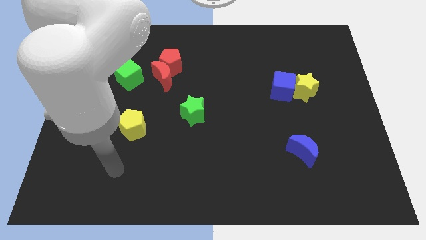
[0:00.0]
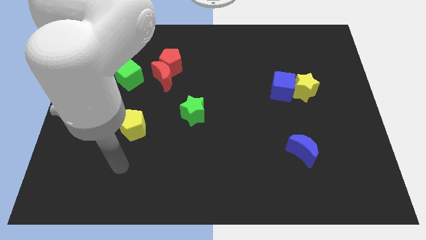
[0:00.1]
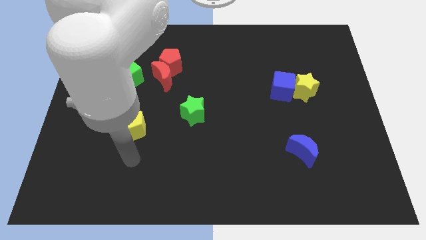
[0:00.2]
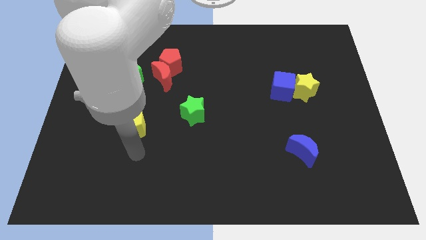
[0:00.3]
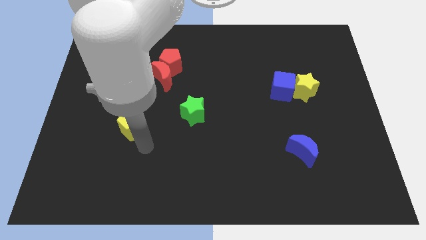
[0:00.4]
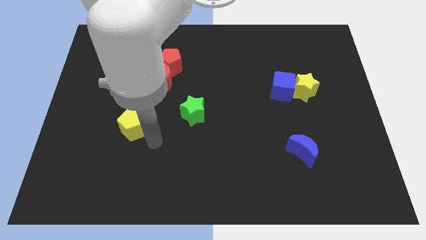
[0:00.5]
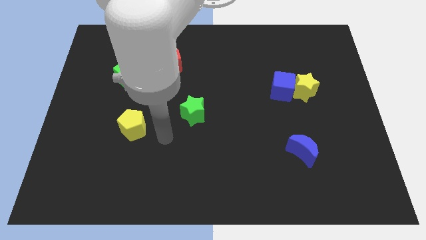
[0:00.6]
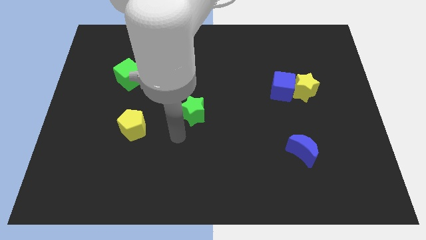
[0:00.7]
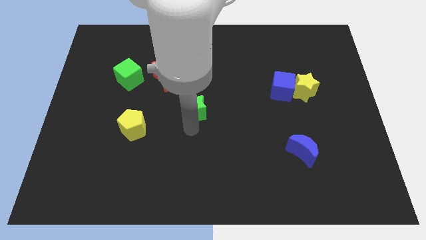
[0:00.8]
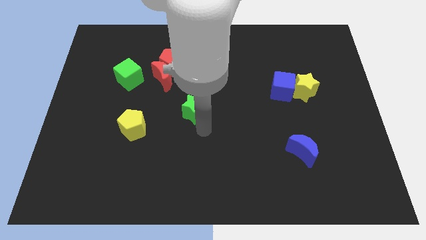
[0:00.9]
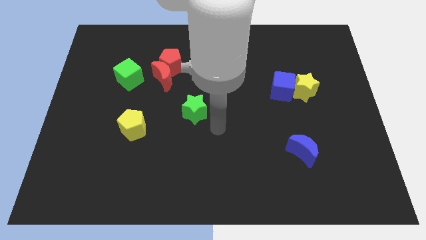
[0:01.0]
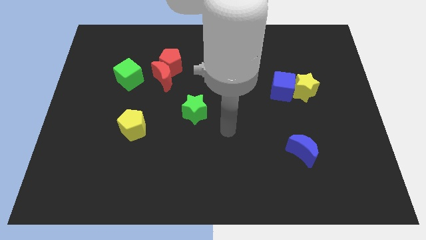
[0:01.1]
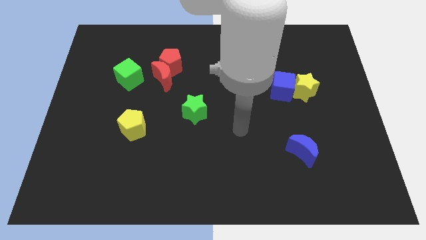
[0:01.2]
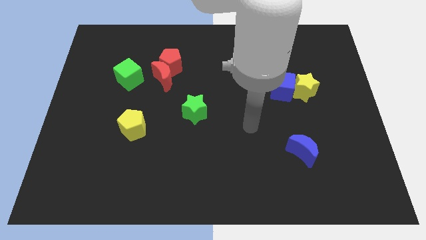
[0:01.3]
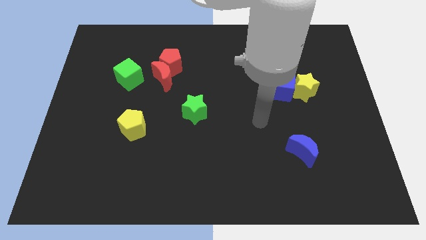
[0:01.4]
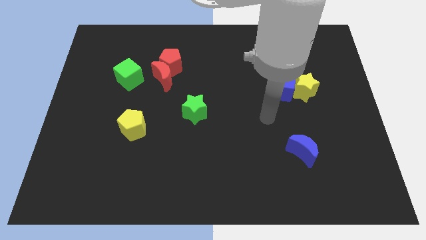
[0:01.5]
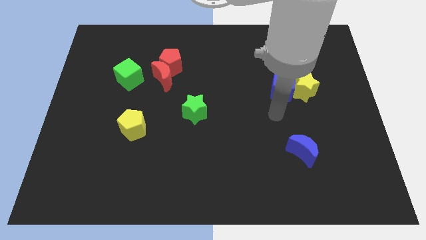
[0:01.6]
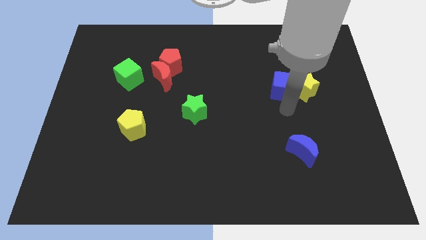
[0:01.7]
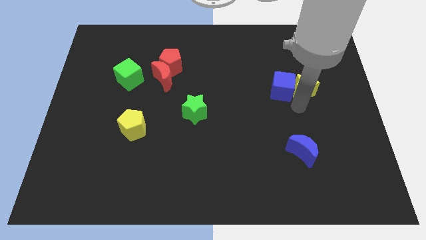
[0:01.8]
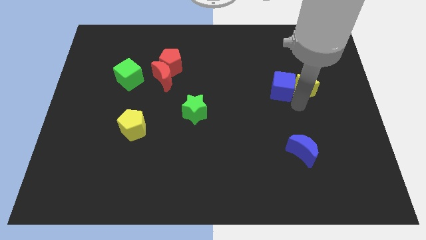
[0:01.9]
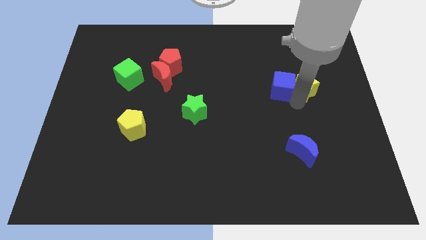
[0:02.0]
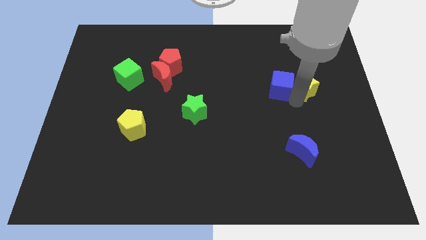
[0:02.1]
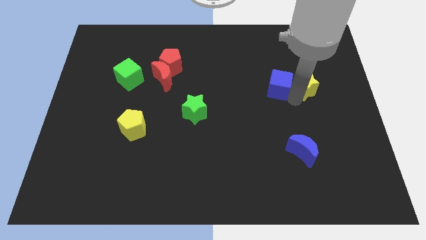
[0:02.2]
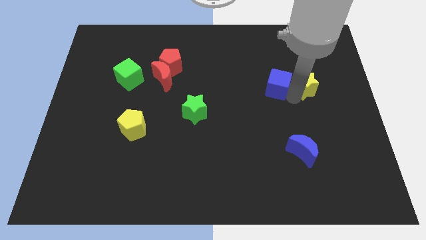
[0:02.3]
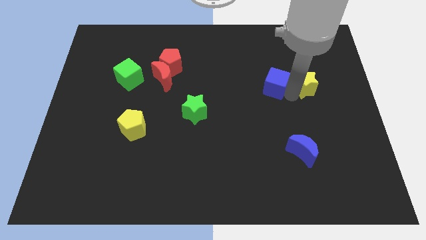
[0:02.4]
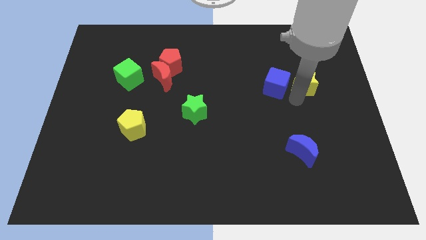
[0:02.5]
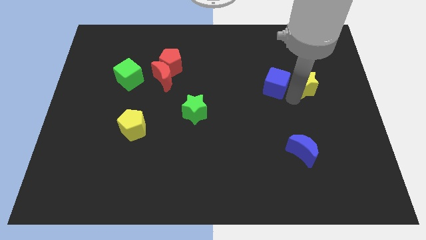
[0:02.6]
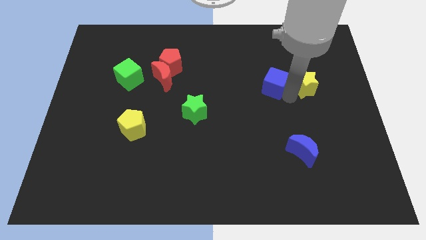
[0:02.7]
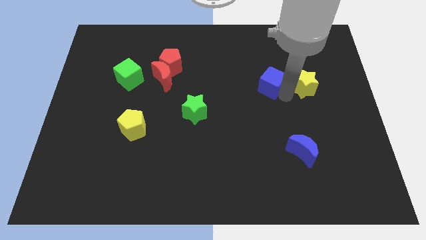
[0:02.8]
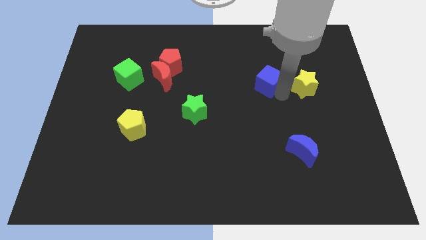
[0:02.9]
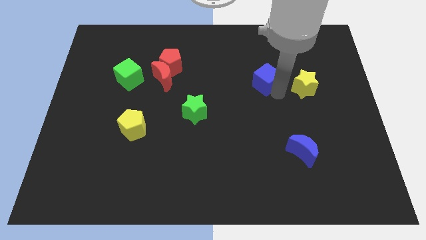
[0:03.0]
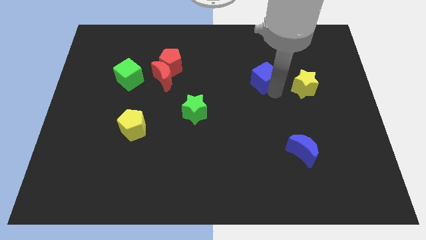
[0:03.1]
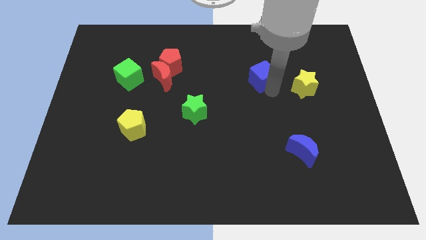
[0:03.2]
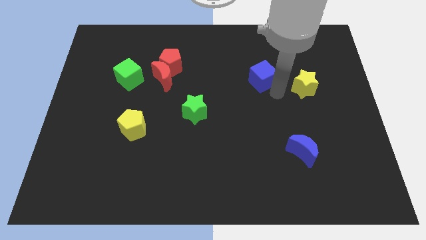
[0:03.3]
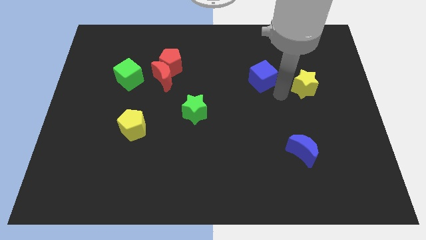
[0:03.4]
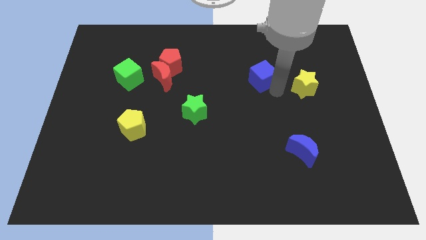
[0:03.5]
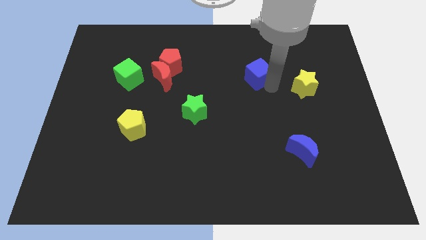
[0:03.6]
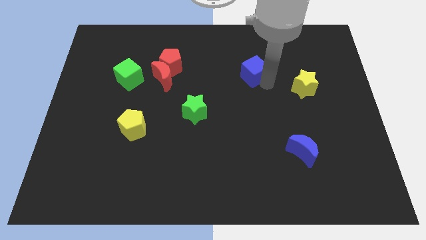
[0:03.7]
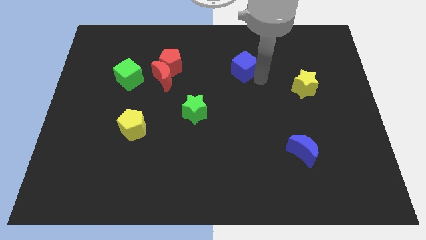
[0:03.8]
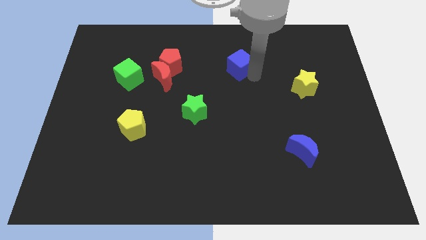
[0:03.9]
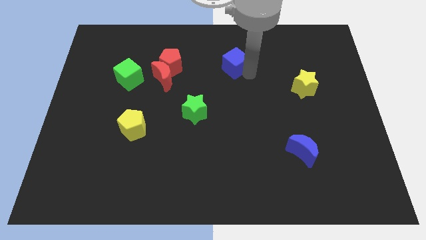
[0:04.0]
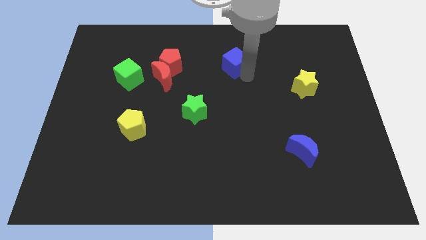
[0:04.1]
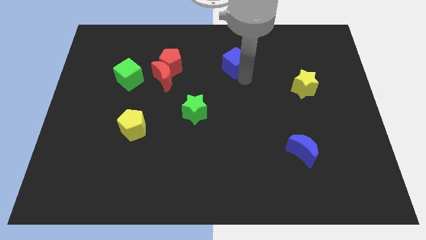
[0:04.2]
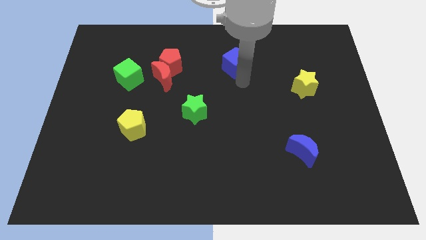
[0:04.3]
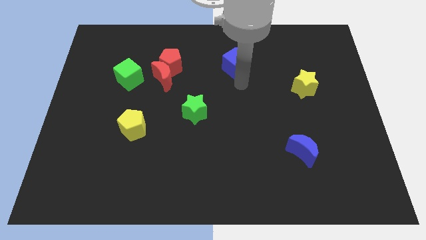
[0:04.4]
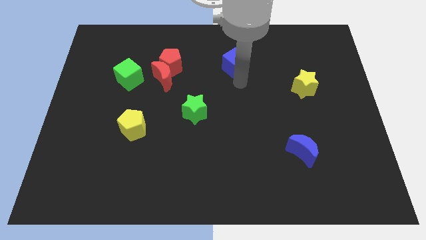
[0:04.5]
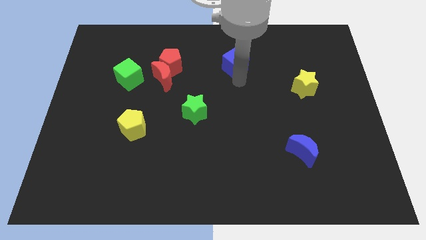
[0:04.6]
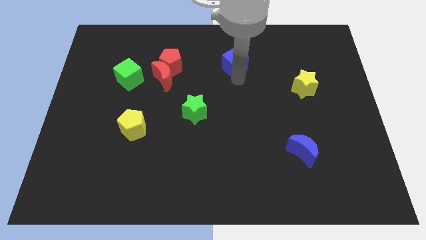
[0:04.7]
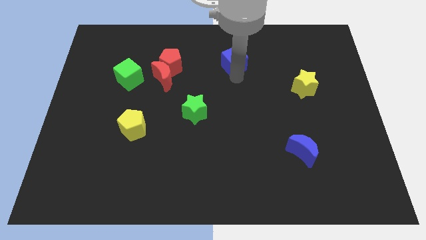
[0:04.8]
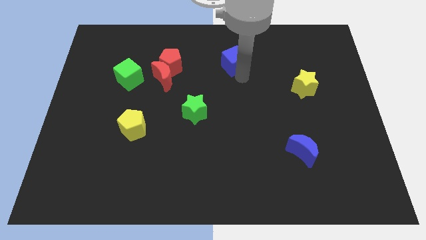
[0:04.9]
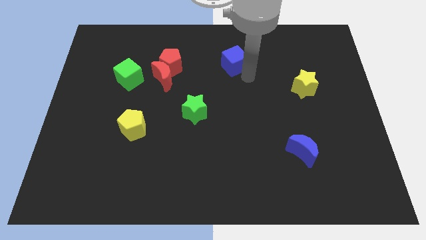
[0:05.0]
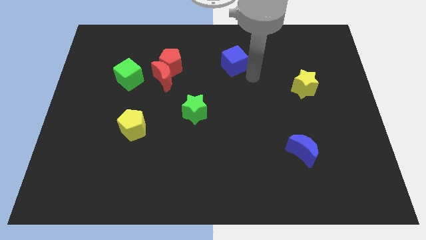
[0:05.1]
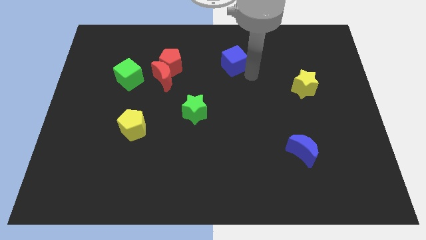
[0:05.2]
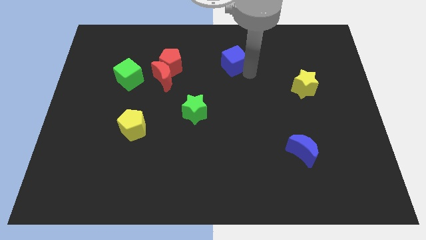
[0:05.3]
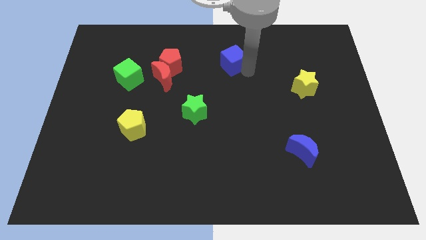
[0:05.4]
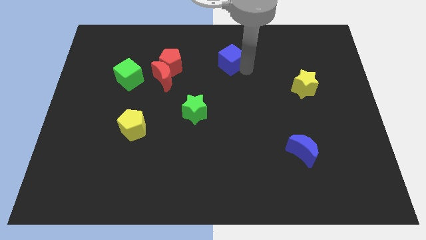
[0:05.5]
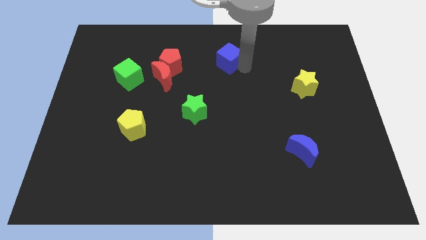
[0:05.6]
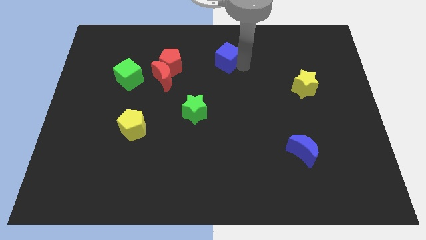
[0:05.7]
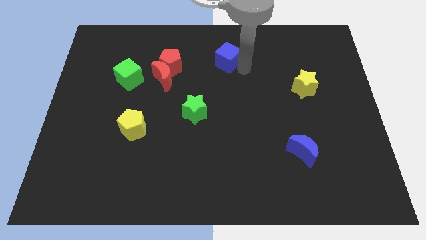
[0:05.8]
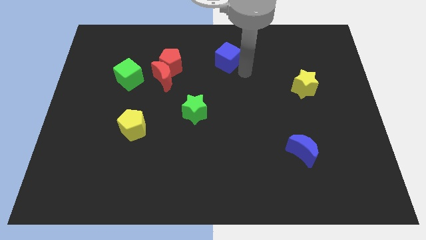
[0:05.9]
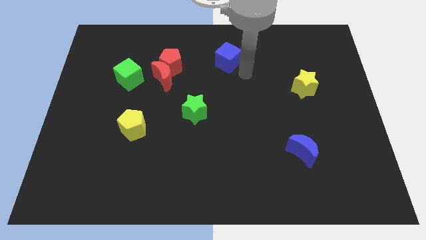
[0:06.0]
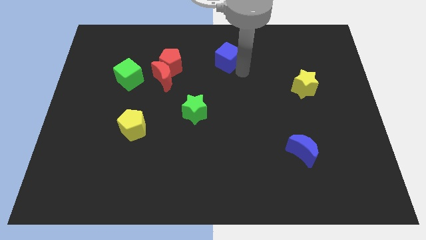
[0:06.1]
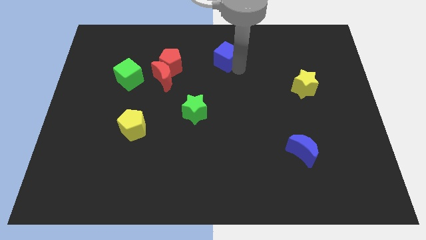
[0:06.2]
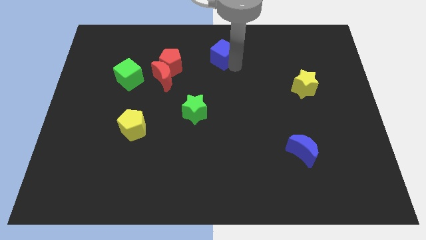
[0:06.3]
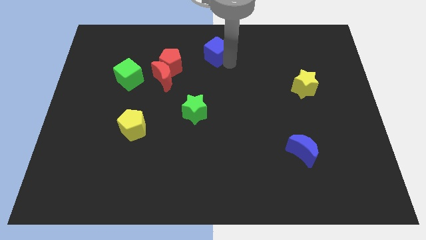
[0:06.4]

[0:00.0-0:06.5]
slide the blue cube to the towards your base

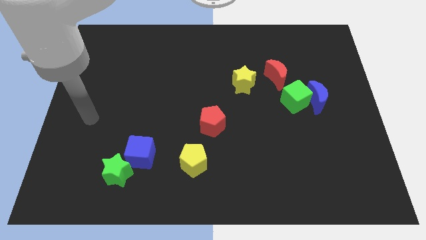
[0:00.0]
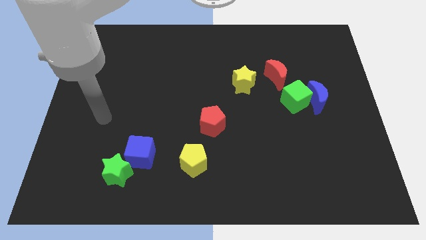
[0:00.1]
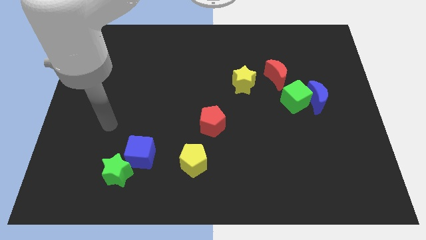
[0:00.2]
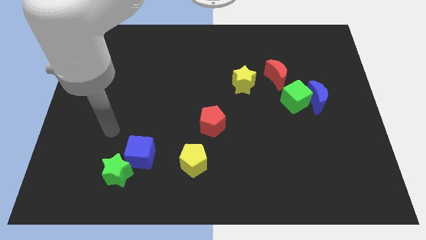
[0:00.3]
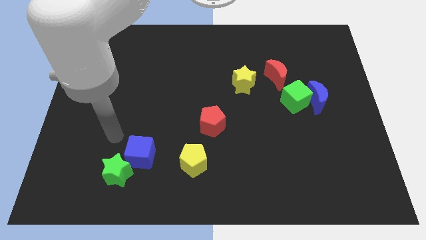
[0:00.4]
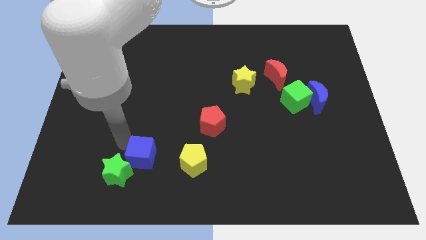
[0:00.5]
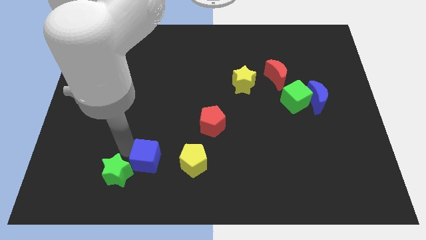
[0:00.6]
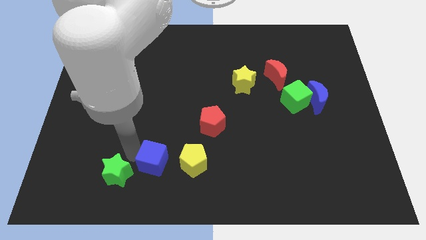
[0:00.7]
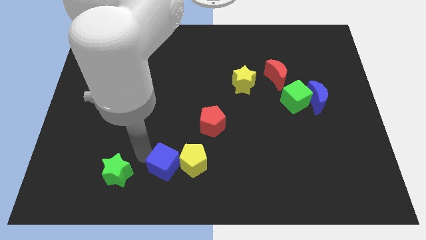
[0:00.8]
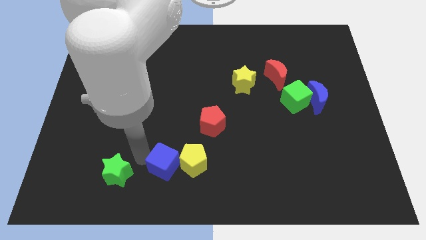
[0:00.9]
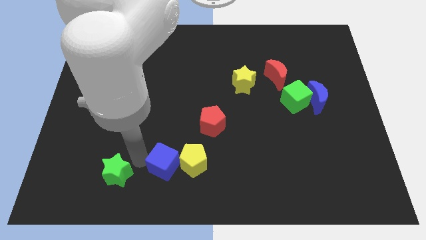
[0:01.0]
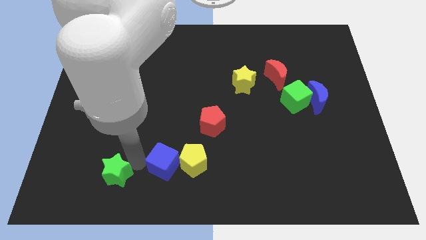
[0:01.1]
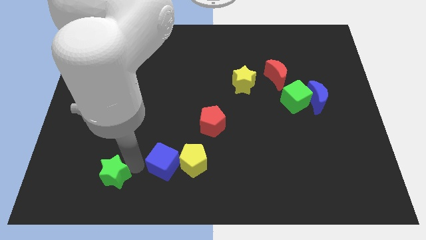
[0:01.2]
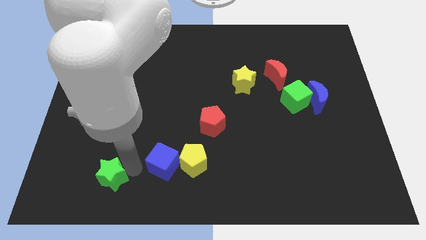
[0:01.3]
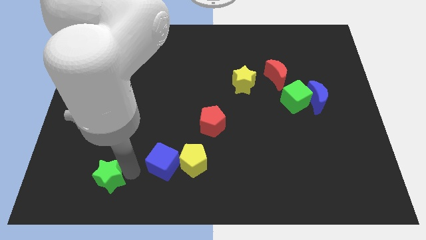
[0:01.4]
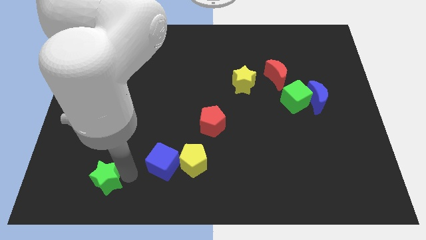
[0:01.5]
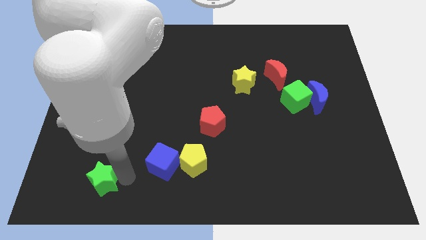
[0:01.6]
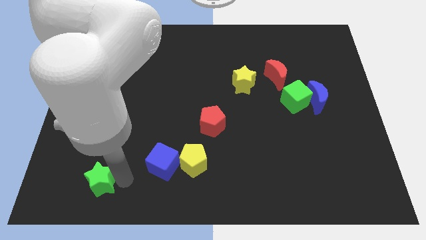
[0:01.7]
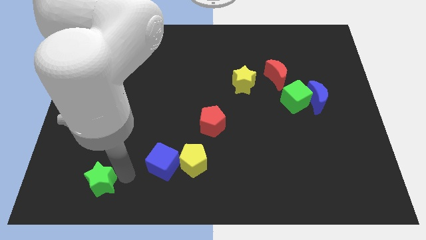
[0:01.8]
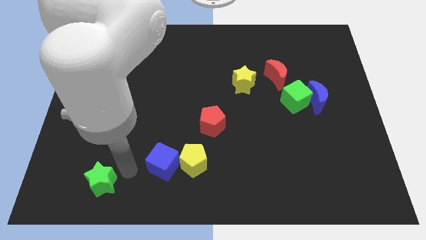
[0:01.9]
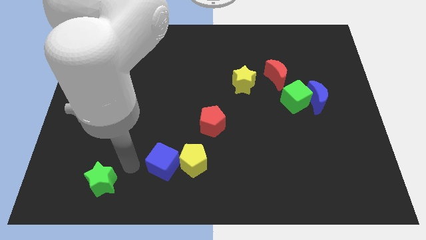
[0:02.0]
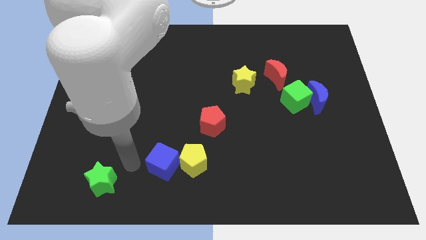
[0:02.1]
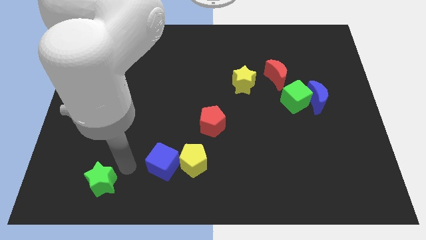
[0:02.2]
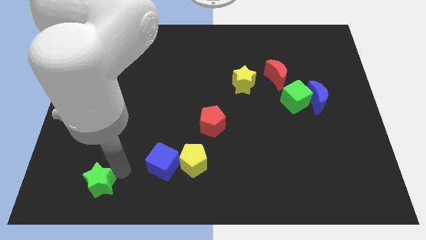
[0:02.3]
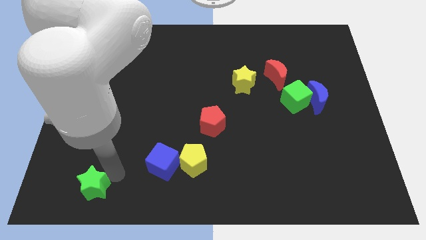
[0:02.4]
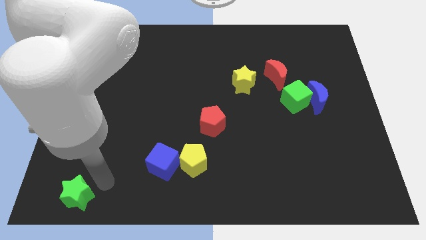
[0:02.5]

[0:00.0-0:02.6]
slide the green star to the bottom left
